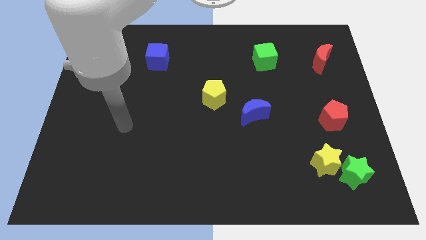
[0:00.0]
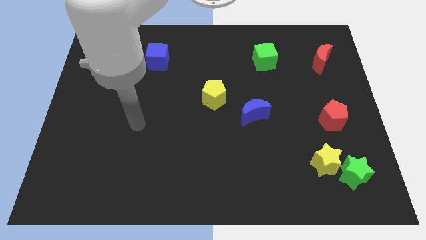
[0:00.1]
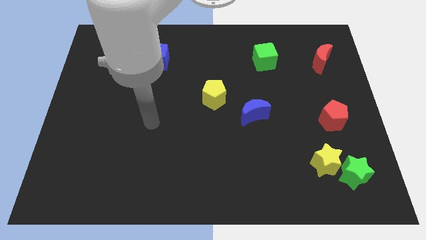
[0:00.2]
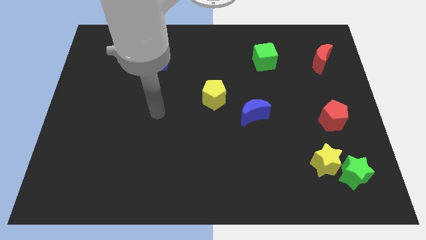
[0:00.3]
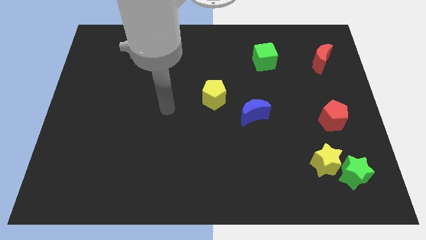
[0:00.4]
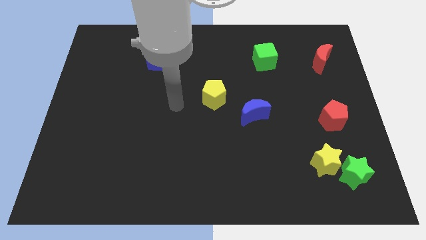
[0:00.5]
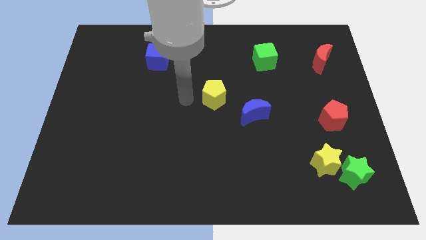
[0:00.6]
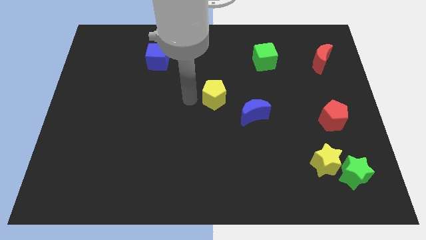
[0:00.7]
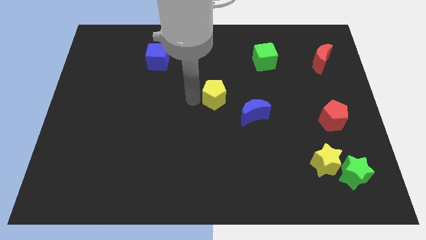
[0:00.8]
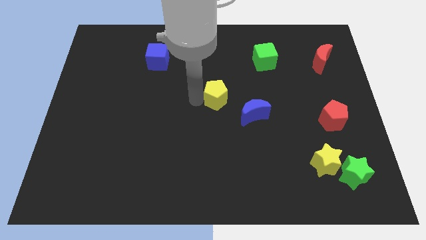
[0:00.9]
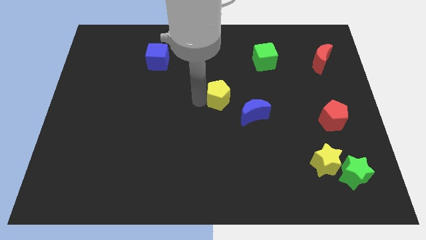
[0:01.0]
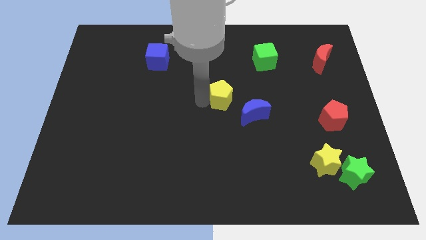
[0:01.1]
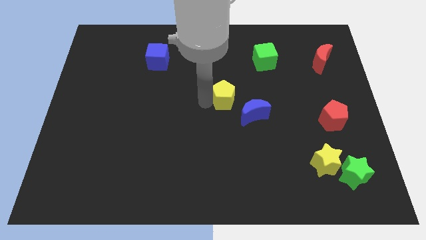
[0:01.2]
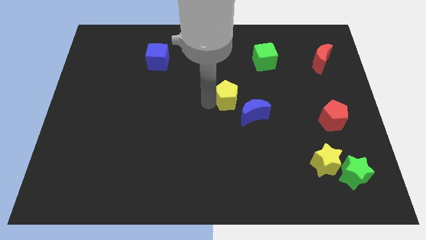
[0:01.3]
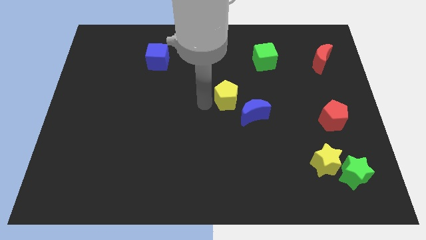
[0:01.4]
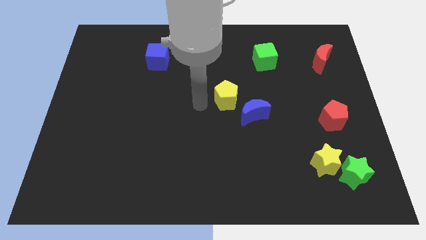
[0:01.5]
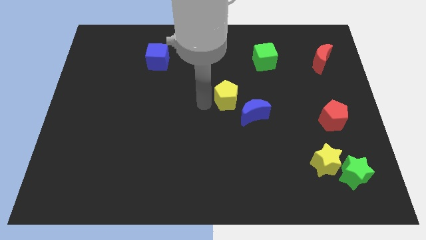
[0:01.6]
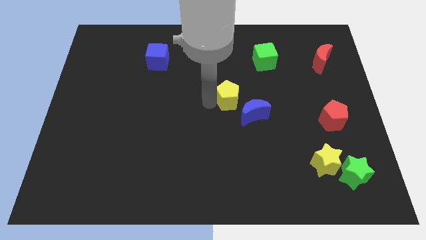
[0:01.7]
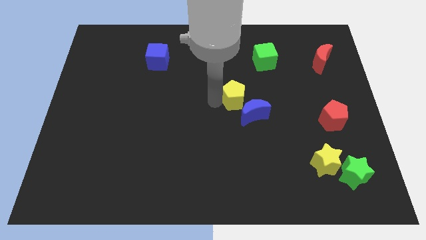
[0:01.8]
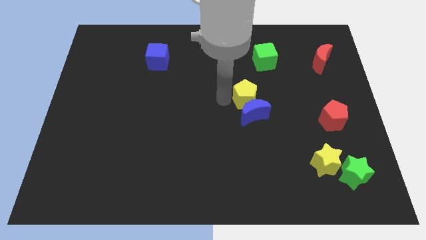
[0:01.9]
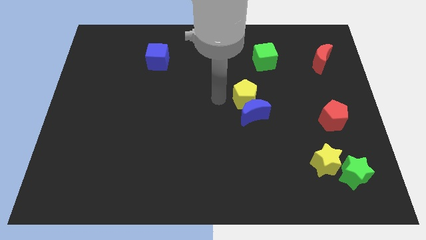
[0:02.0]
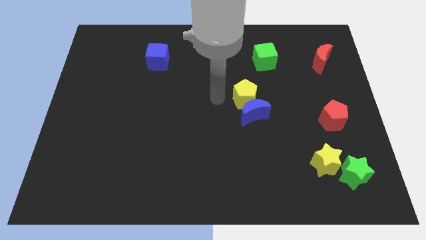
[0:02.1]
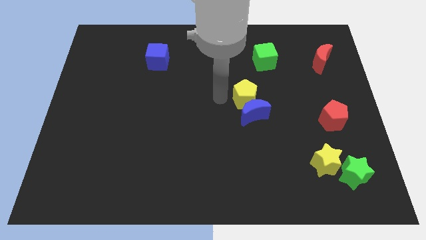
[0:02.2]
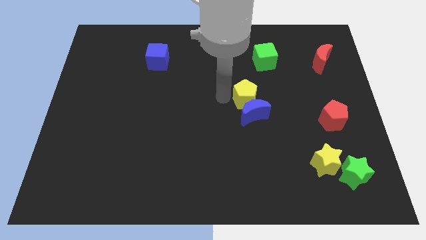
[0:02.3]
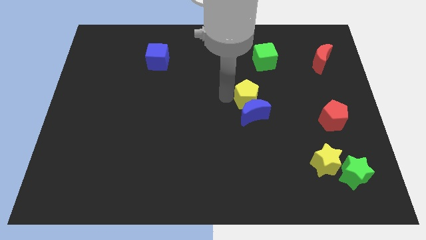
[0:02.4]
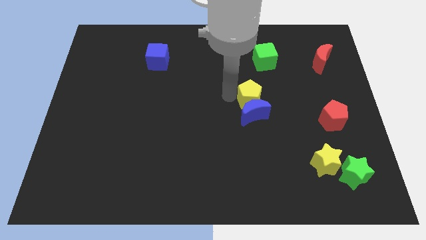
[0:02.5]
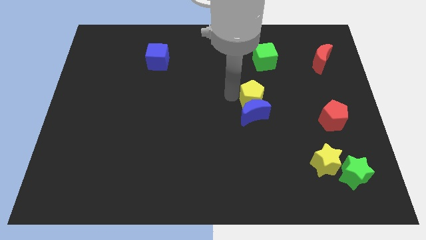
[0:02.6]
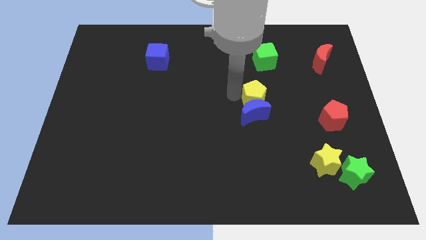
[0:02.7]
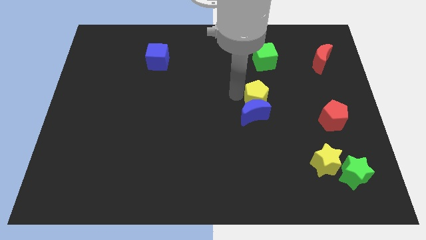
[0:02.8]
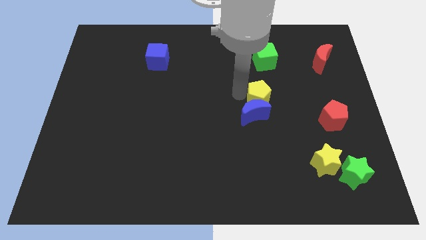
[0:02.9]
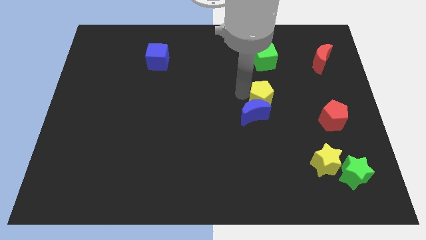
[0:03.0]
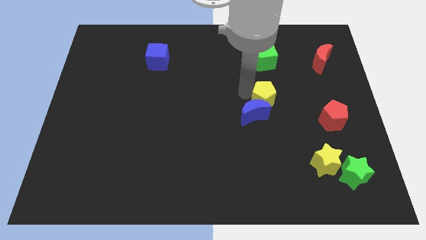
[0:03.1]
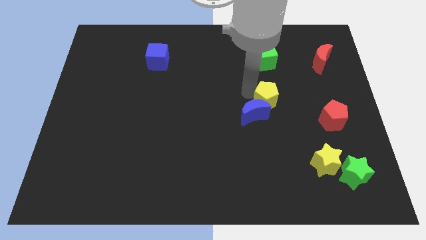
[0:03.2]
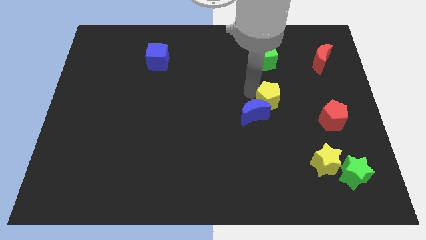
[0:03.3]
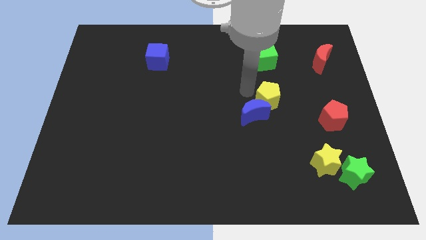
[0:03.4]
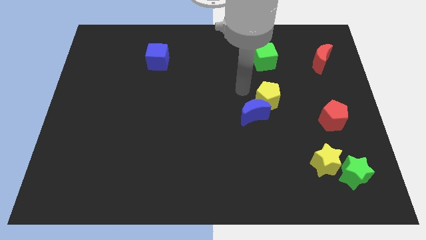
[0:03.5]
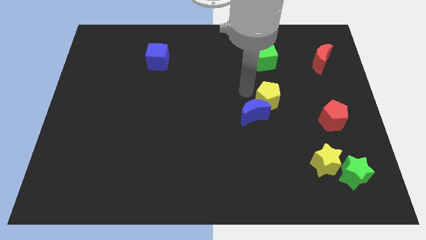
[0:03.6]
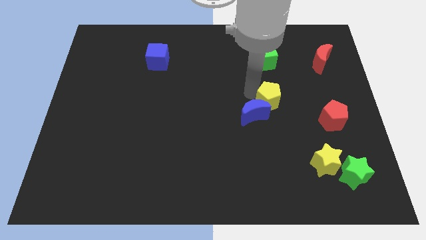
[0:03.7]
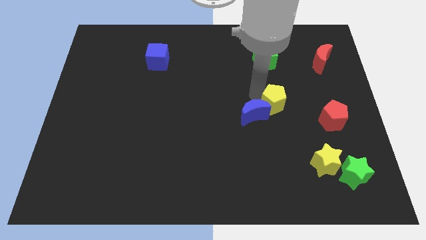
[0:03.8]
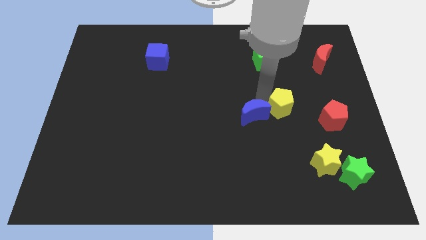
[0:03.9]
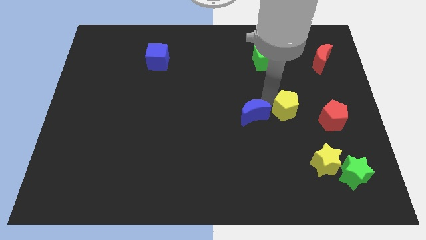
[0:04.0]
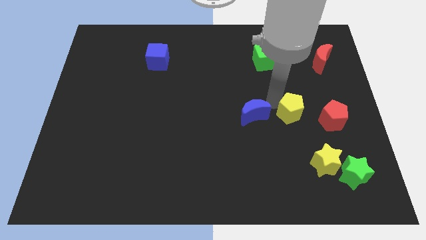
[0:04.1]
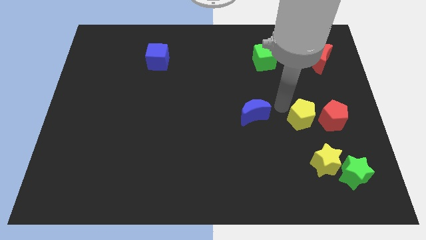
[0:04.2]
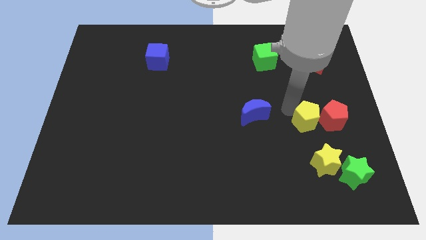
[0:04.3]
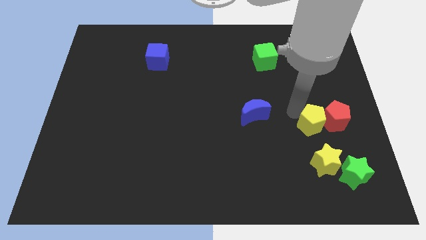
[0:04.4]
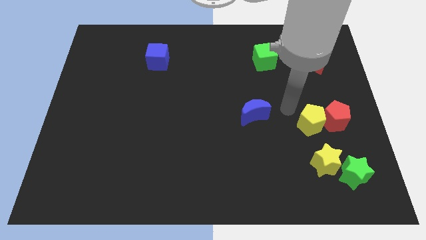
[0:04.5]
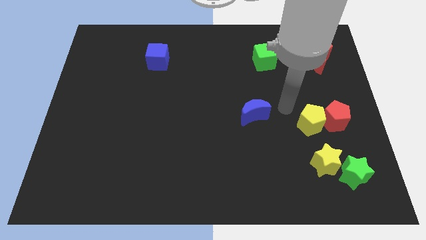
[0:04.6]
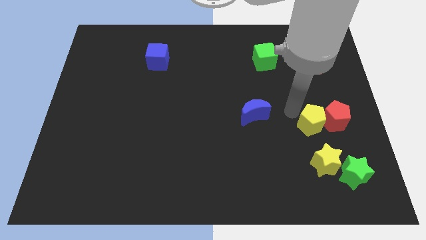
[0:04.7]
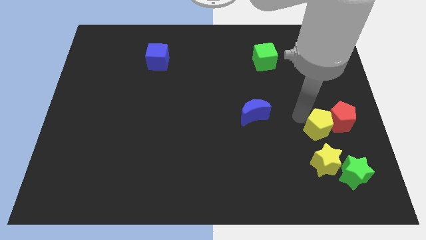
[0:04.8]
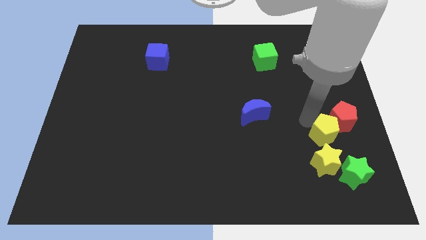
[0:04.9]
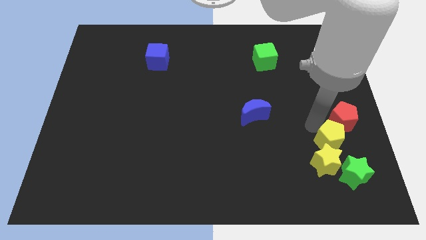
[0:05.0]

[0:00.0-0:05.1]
put the yellow pentagon diagonally up and to the right of the yellow star

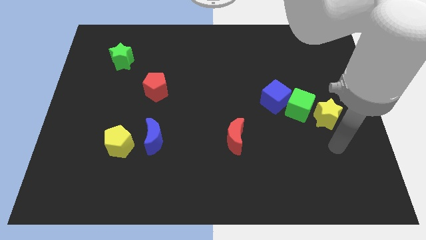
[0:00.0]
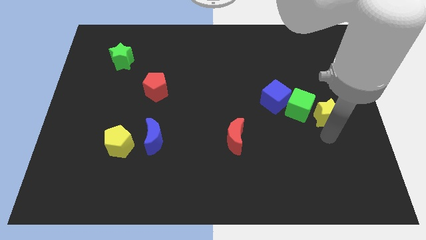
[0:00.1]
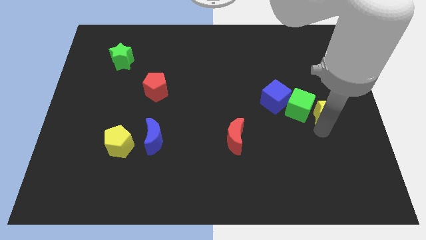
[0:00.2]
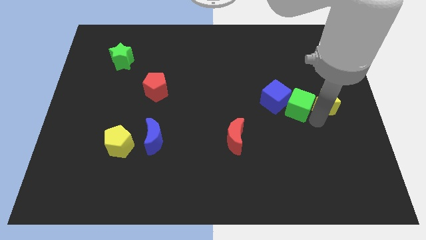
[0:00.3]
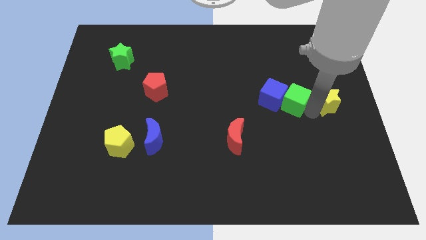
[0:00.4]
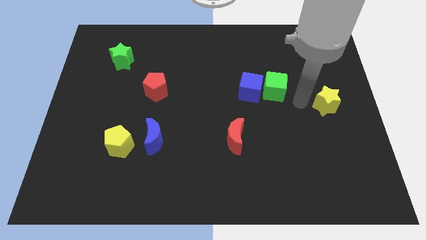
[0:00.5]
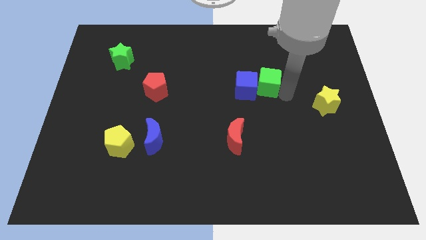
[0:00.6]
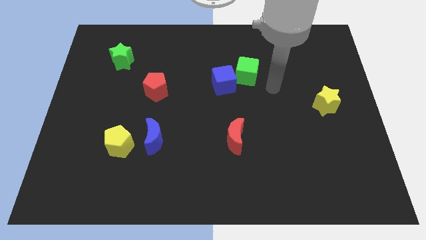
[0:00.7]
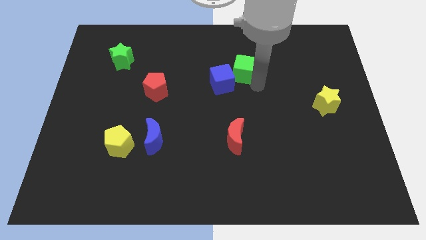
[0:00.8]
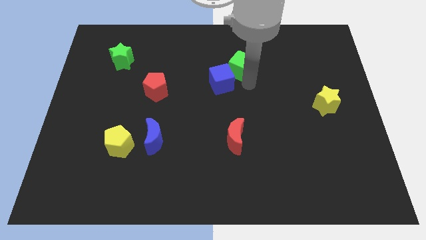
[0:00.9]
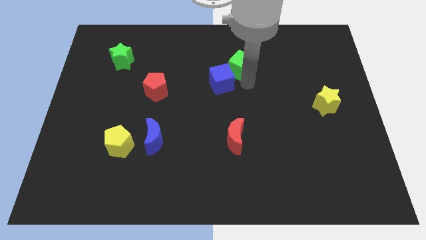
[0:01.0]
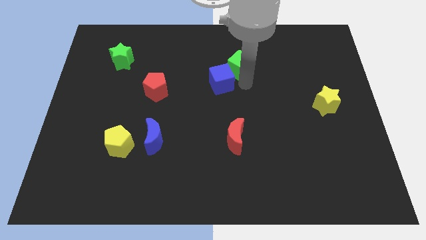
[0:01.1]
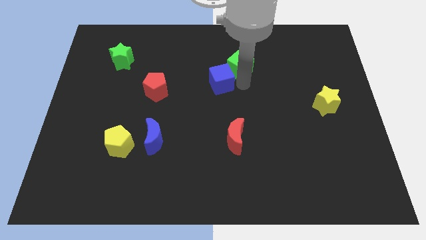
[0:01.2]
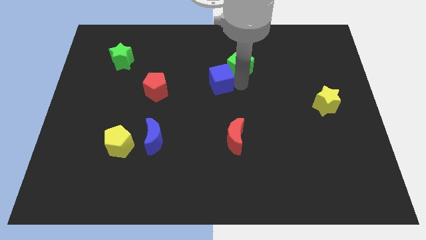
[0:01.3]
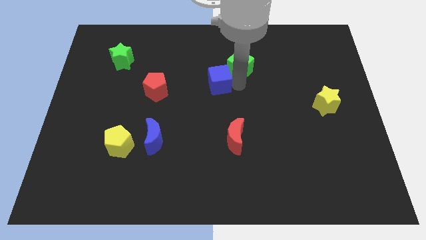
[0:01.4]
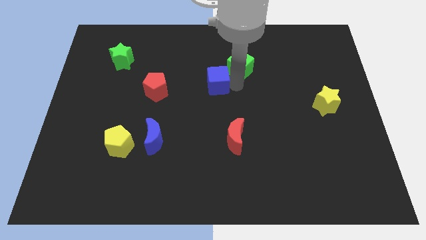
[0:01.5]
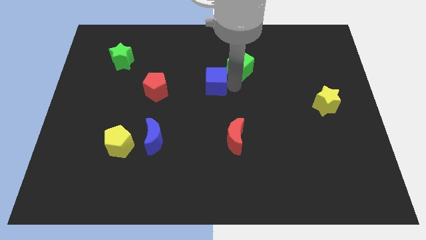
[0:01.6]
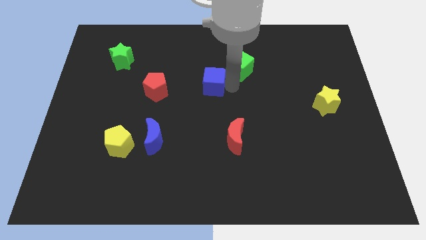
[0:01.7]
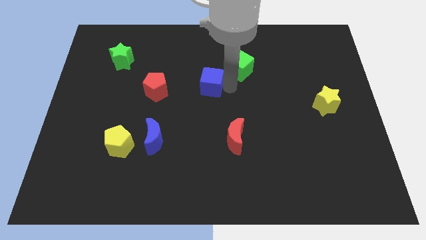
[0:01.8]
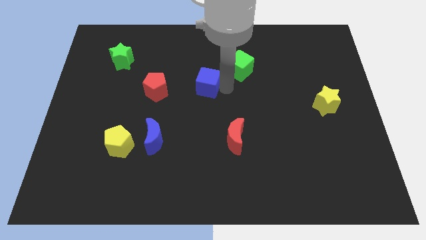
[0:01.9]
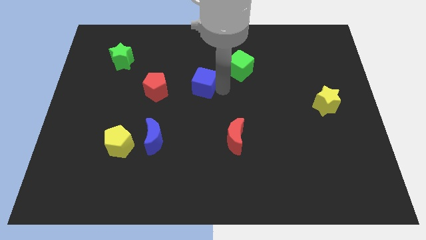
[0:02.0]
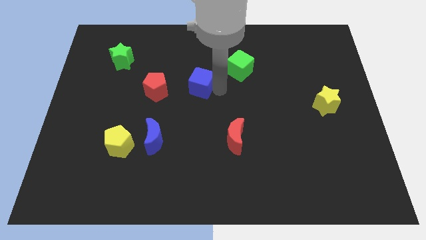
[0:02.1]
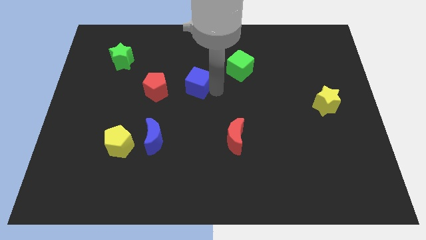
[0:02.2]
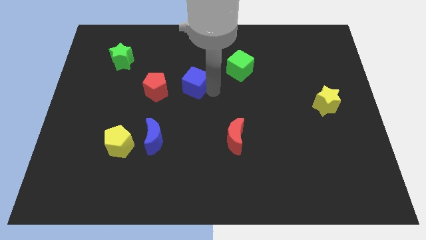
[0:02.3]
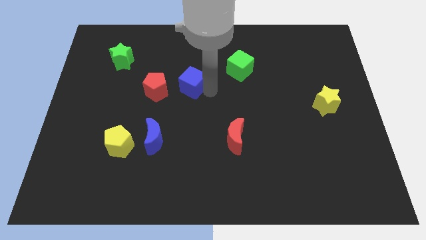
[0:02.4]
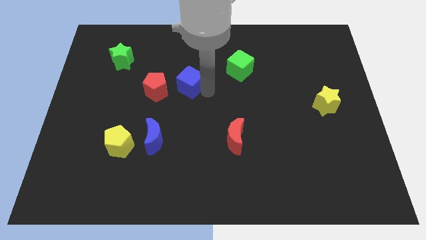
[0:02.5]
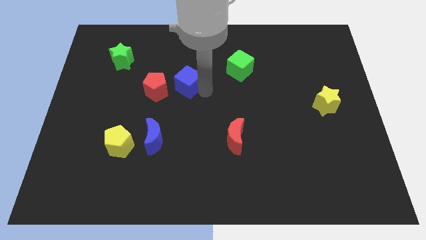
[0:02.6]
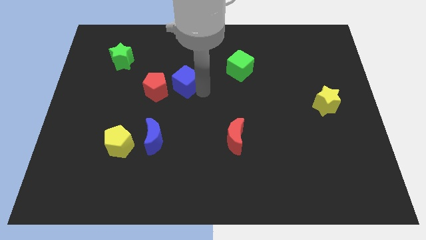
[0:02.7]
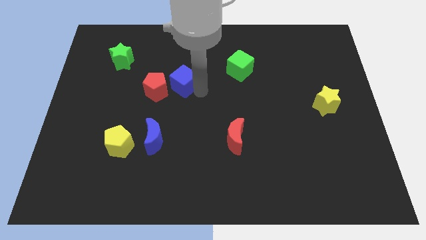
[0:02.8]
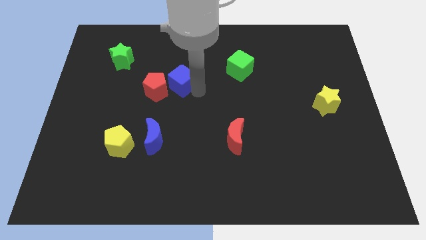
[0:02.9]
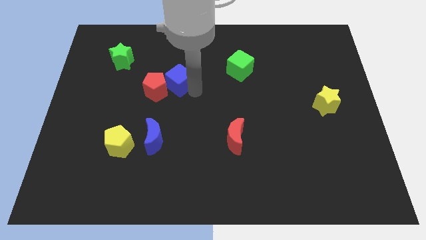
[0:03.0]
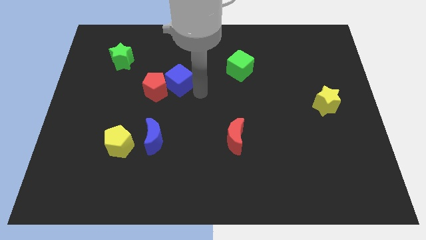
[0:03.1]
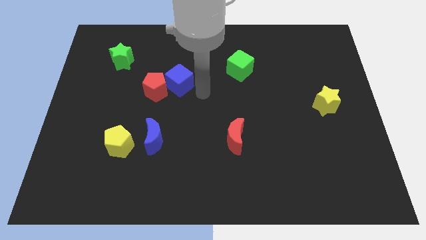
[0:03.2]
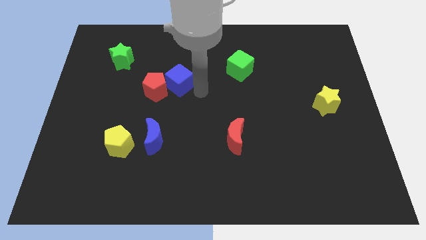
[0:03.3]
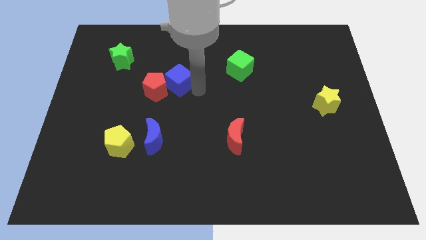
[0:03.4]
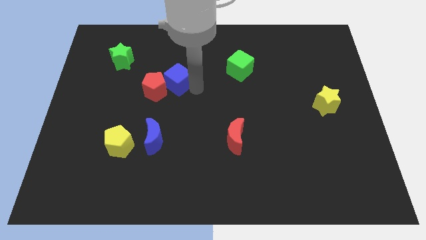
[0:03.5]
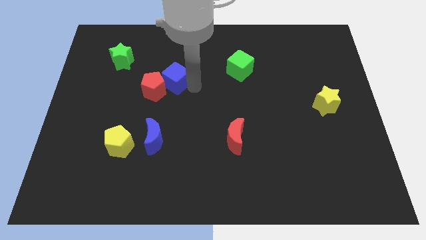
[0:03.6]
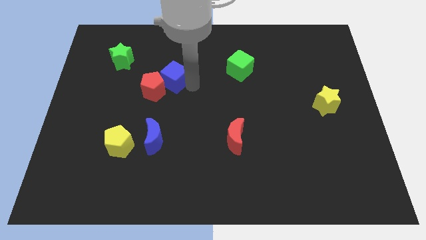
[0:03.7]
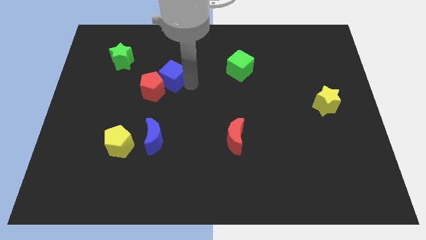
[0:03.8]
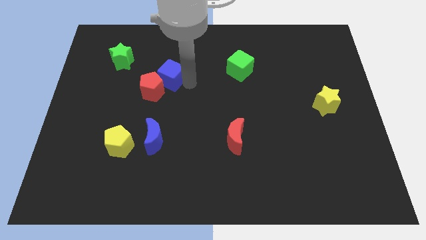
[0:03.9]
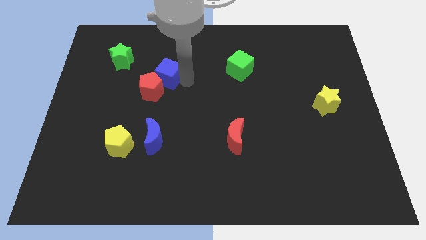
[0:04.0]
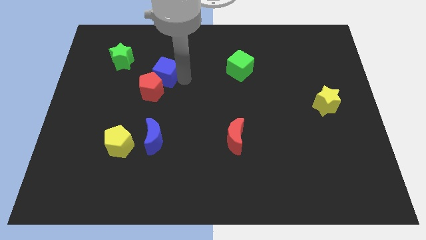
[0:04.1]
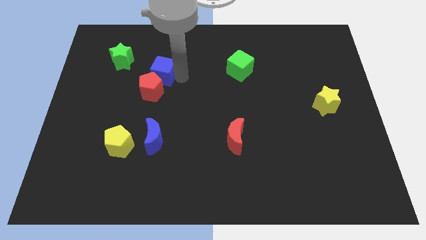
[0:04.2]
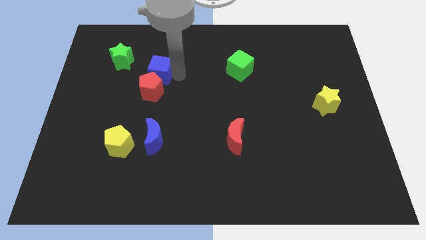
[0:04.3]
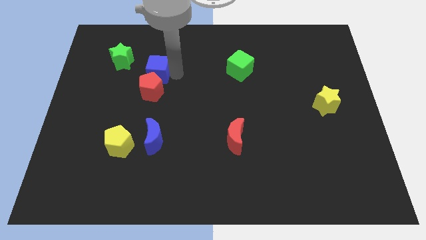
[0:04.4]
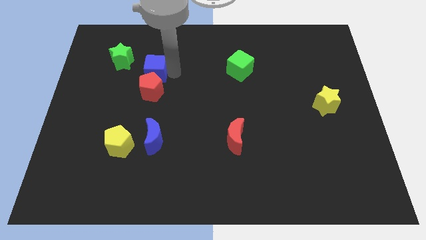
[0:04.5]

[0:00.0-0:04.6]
move the blue cube to the top left side of the red pentagon
